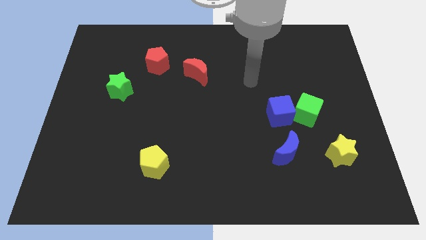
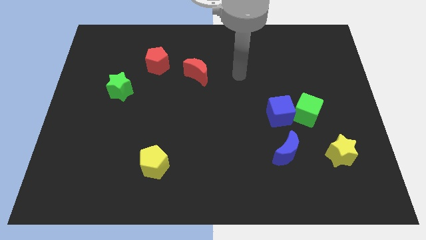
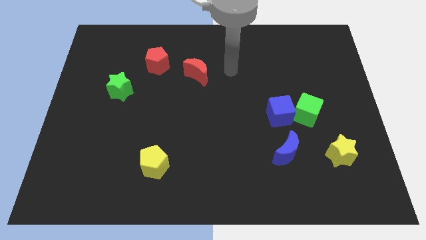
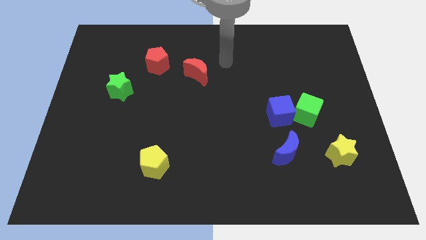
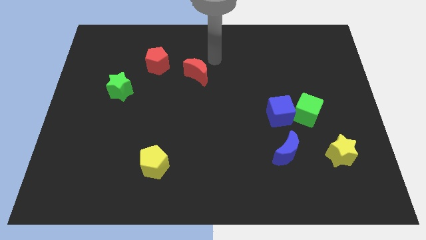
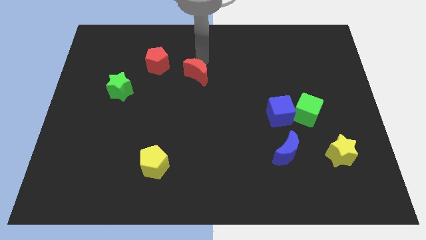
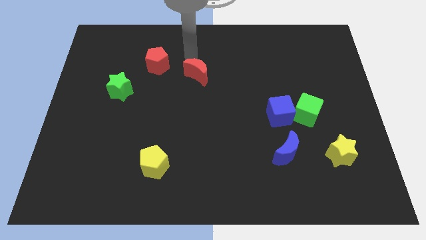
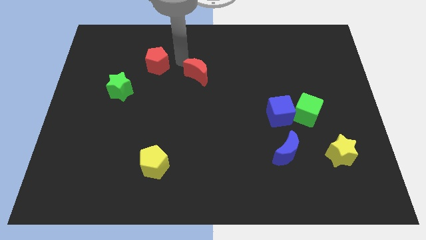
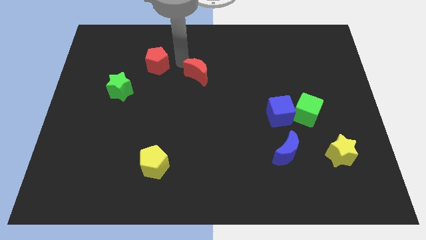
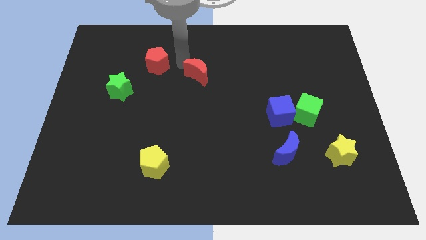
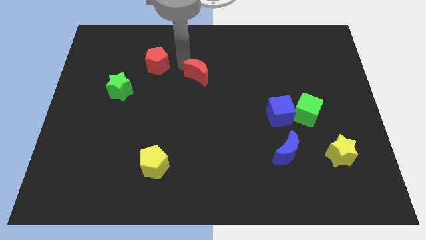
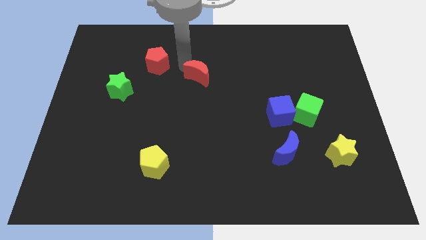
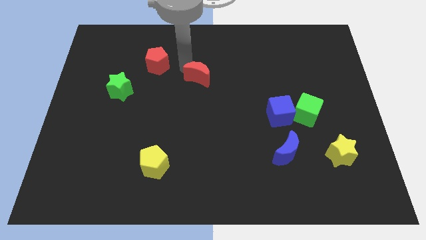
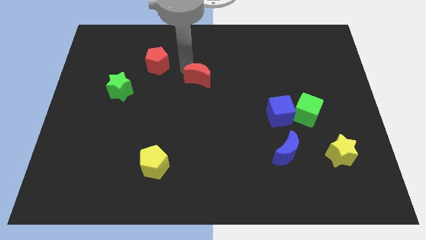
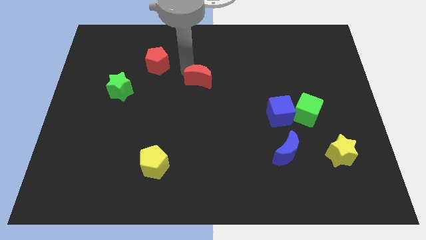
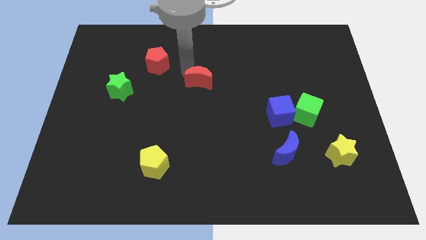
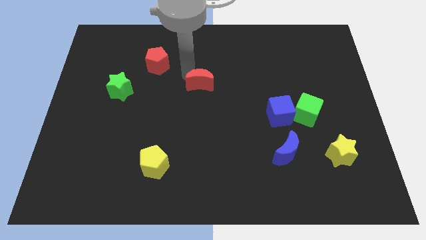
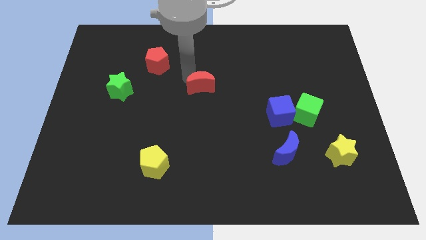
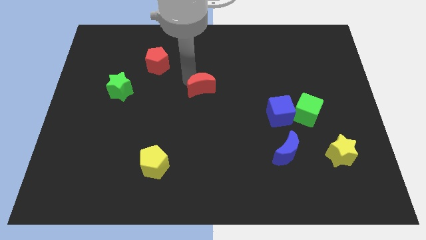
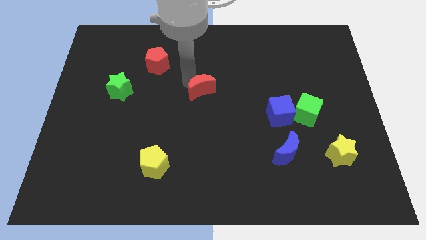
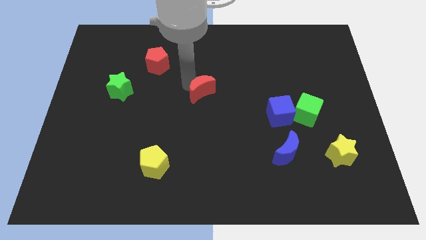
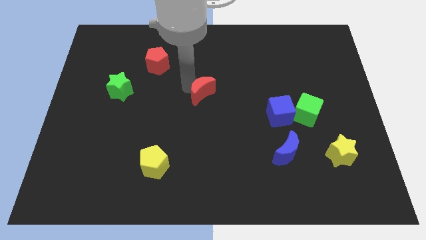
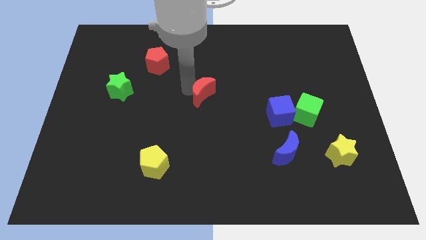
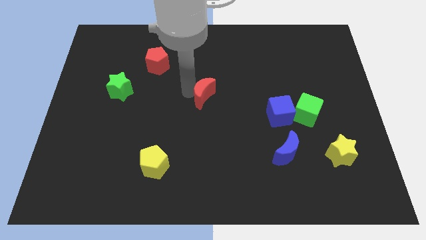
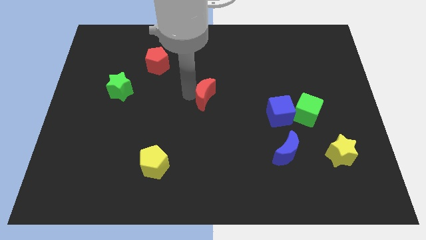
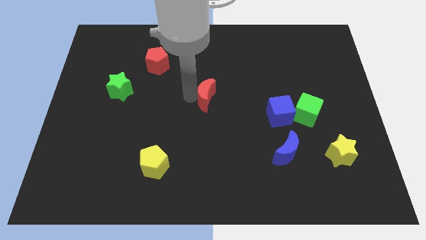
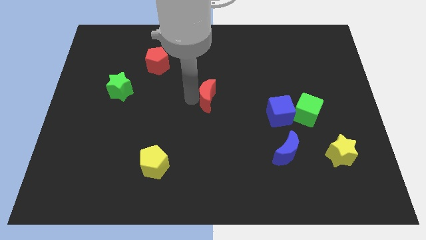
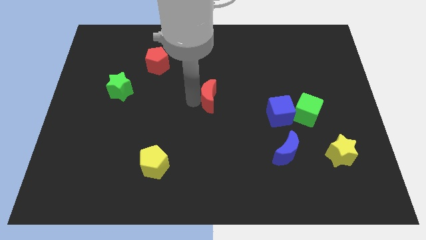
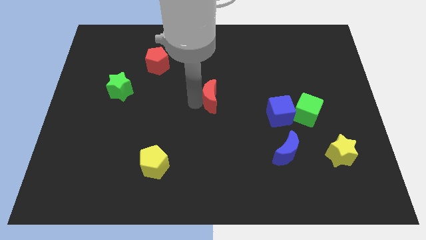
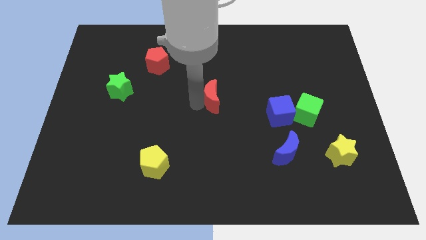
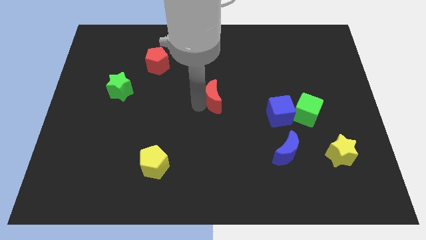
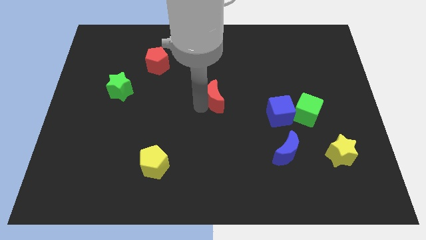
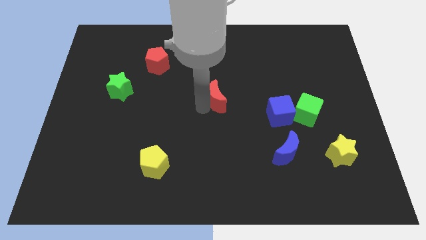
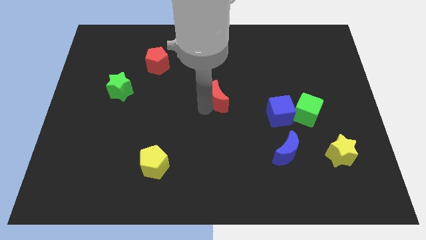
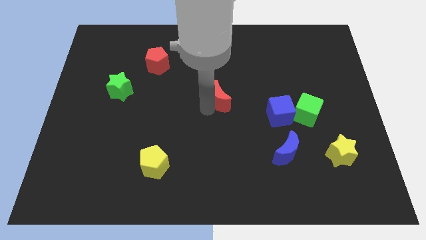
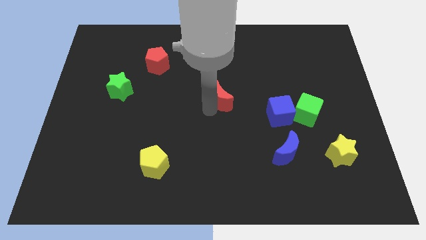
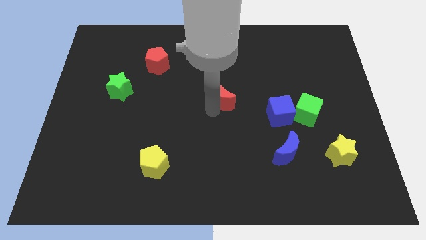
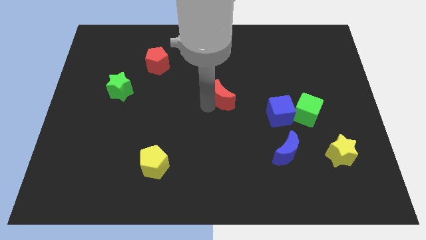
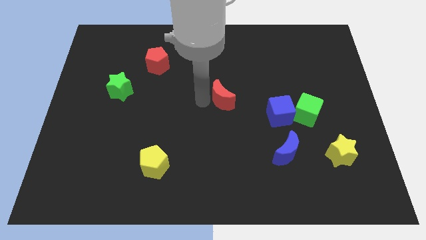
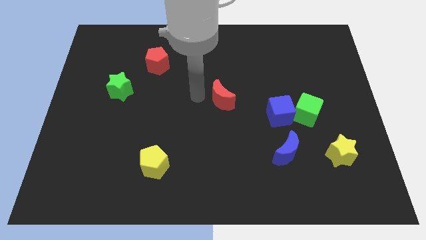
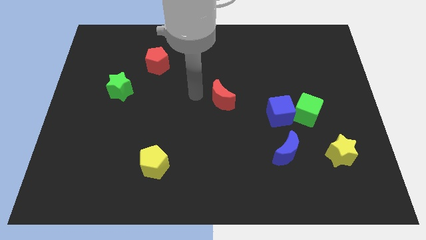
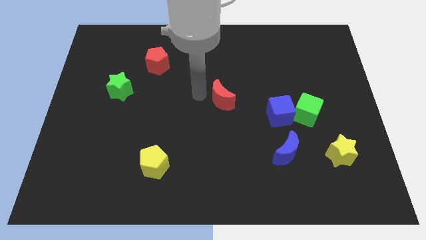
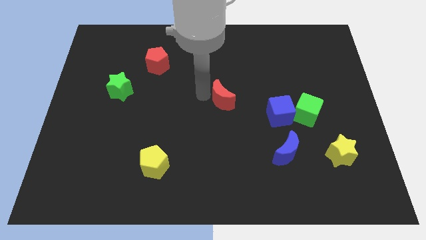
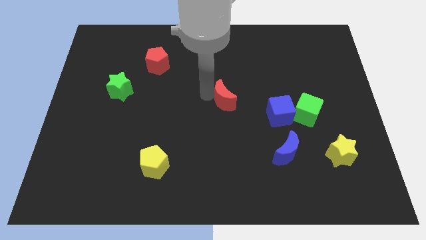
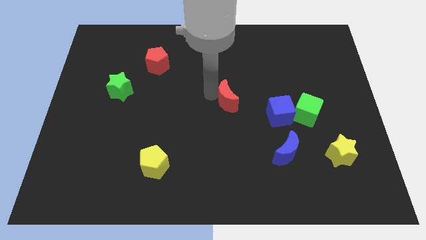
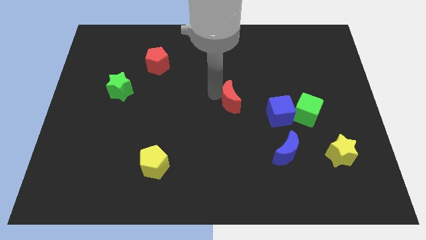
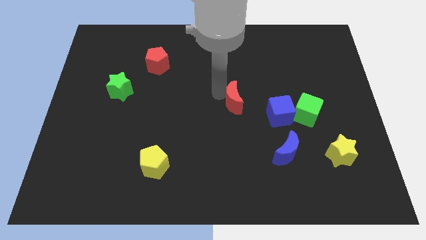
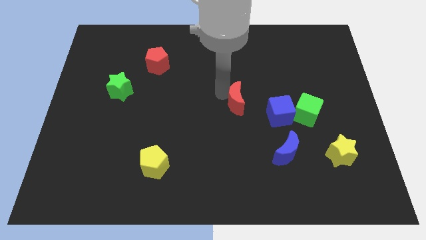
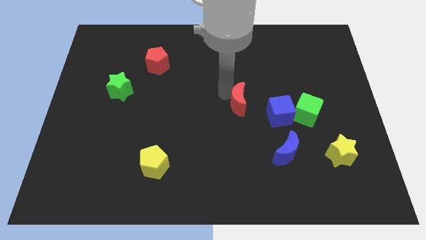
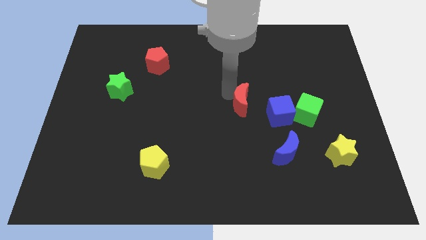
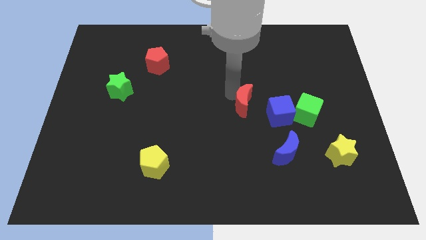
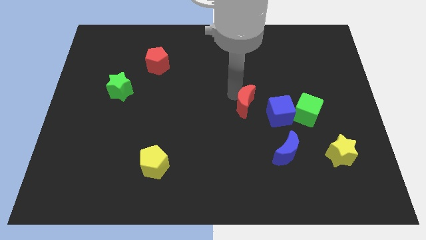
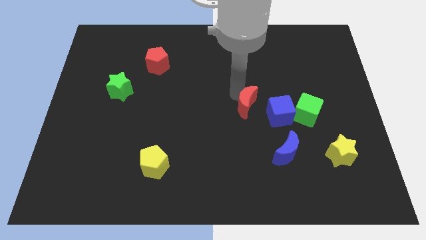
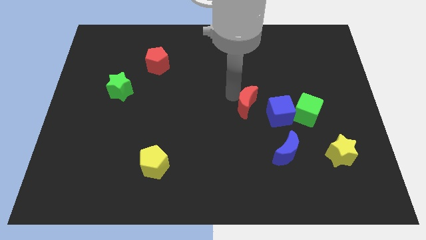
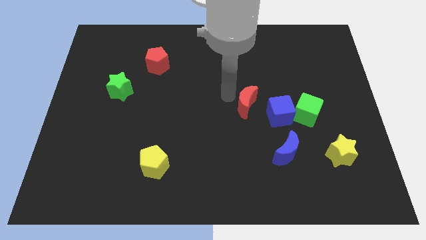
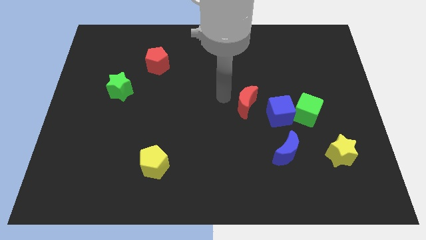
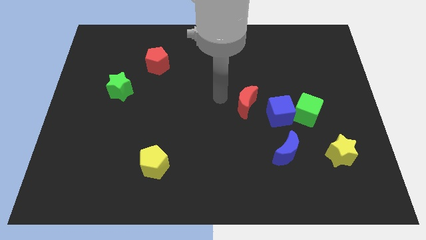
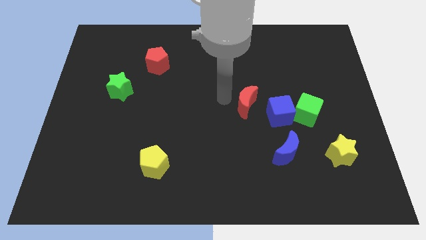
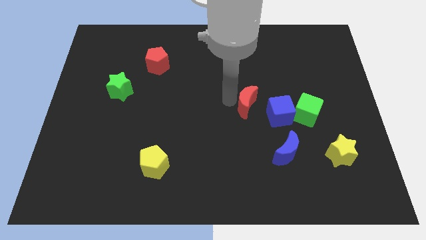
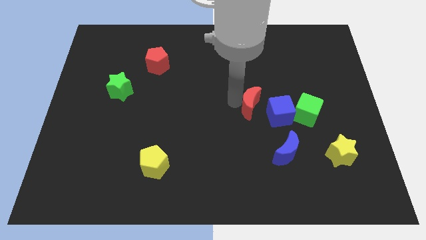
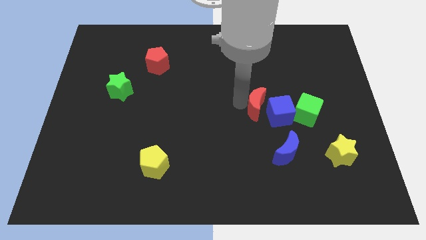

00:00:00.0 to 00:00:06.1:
put the red moon to the blue cube

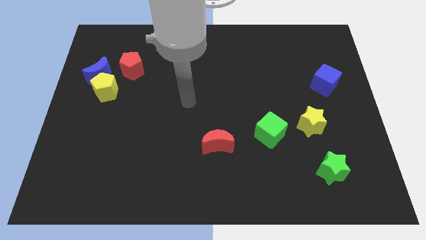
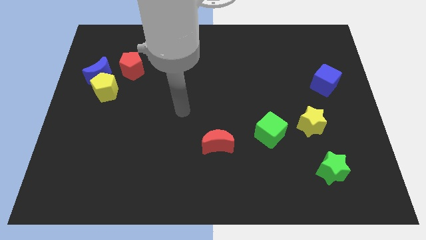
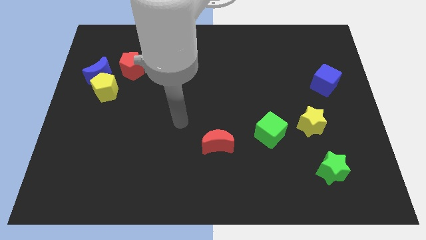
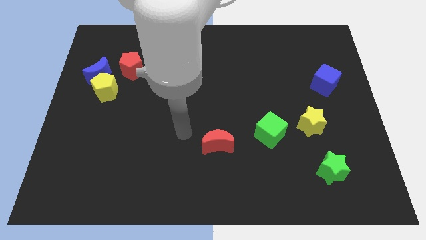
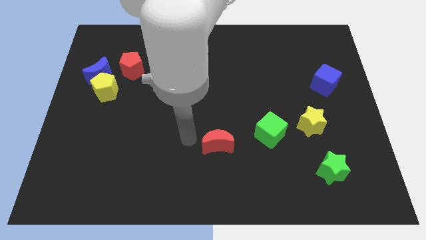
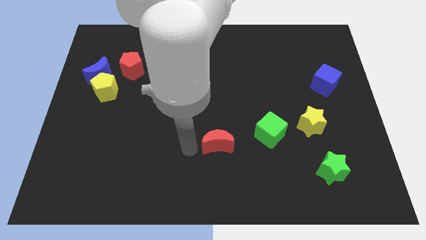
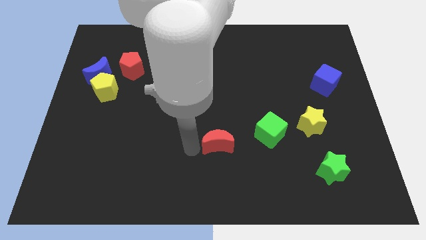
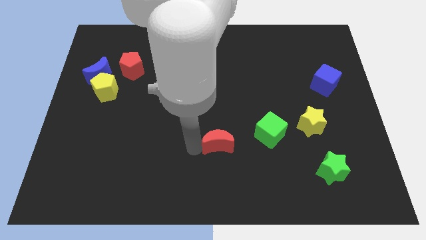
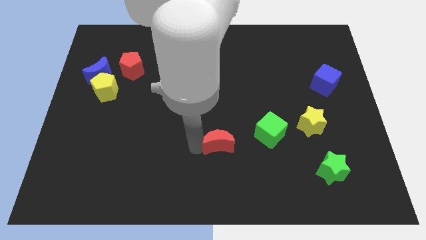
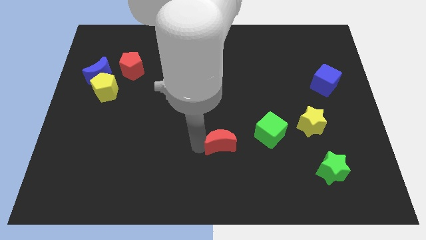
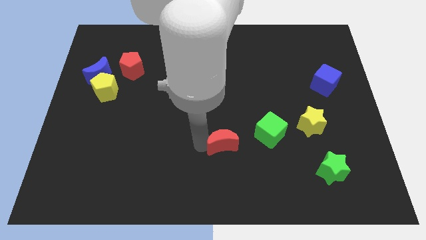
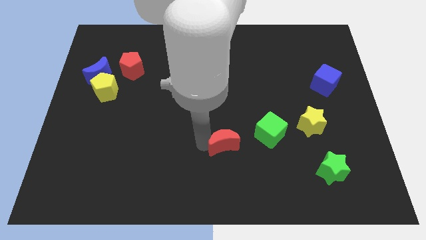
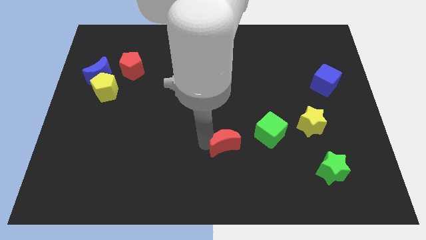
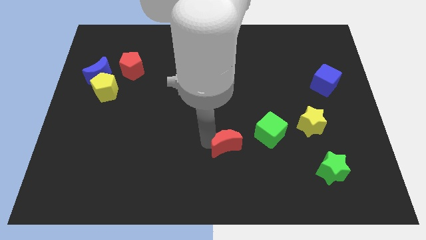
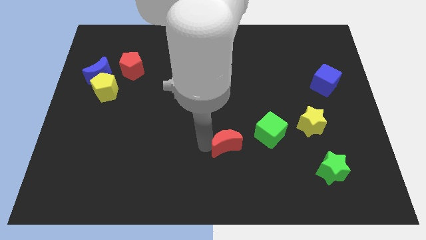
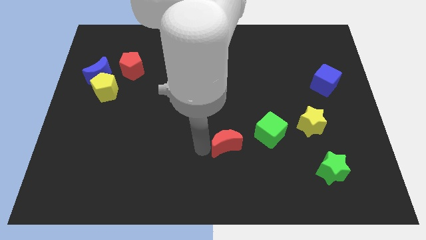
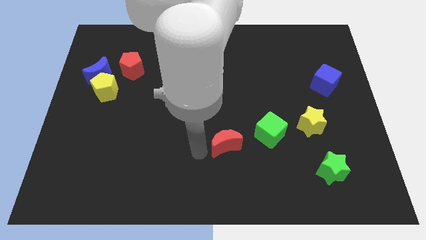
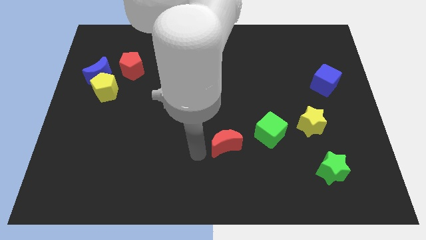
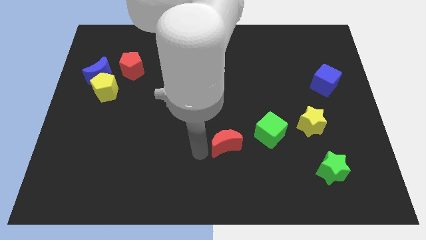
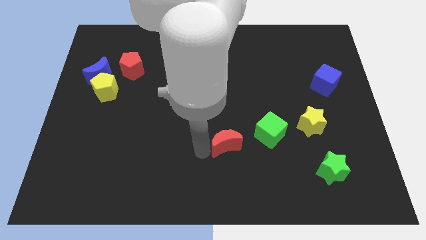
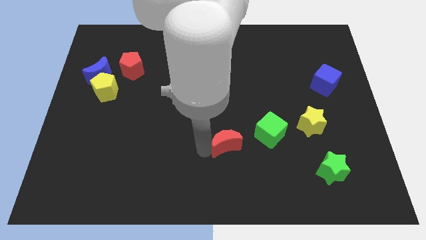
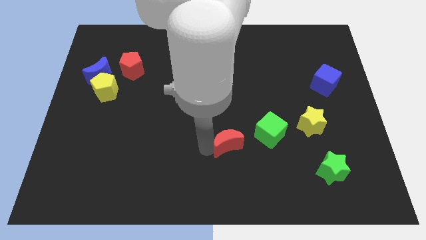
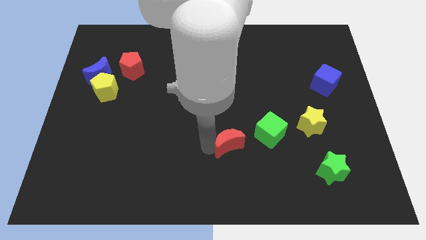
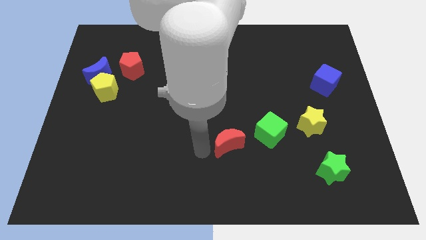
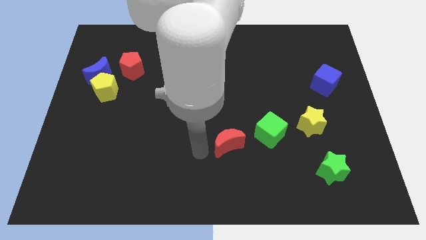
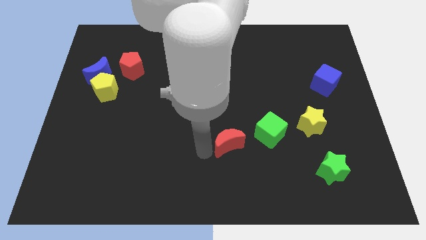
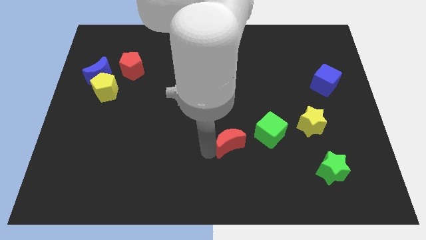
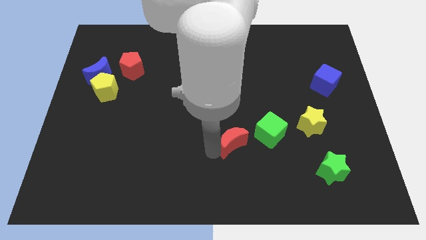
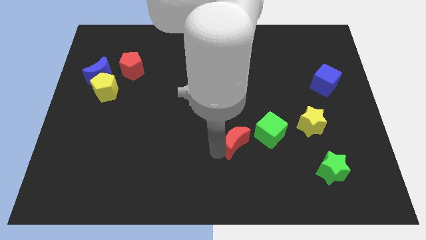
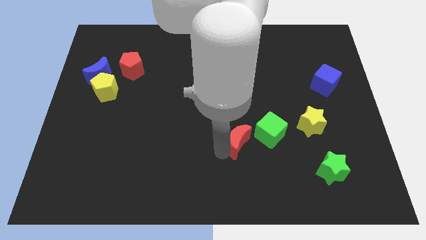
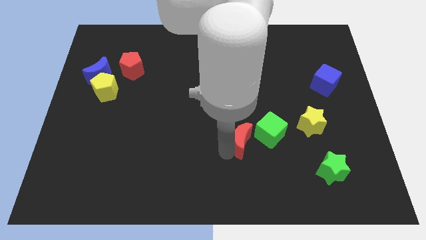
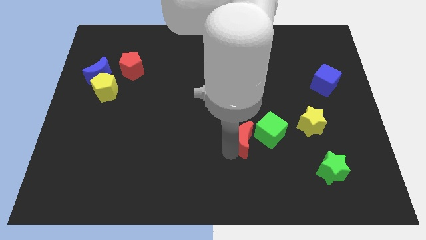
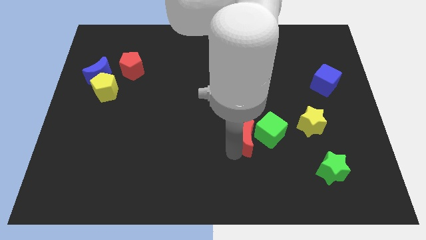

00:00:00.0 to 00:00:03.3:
put the red moon close to the green cube
